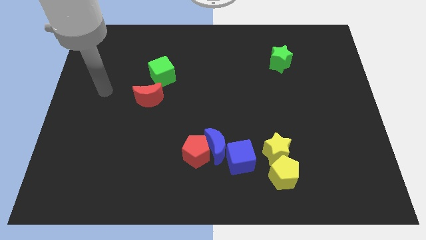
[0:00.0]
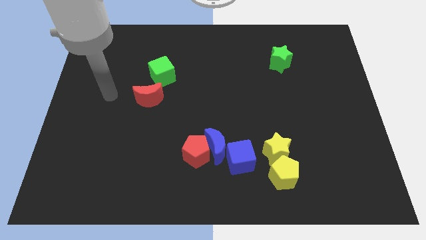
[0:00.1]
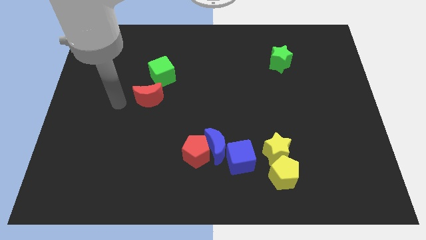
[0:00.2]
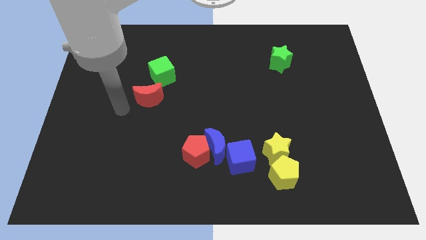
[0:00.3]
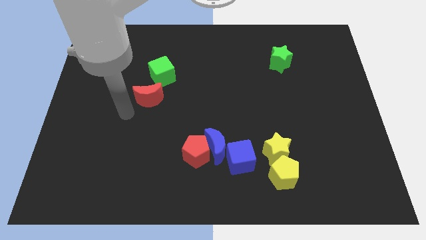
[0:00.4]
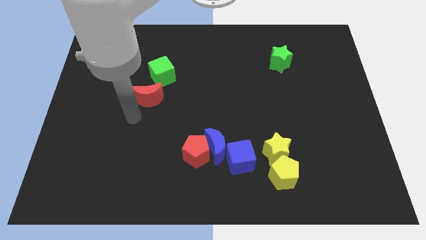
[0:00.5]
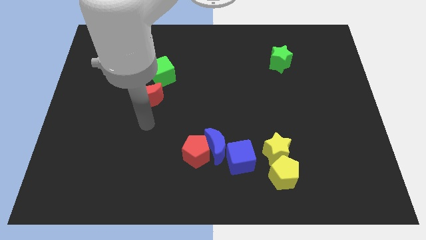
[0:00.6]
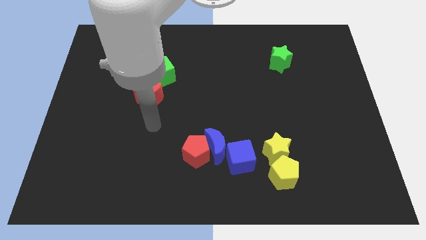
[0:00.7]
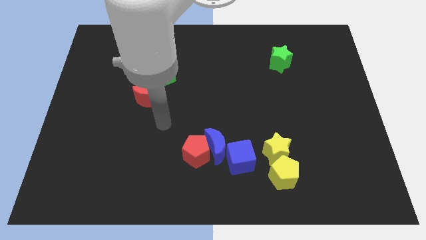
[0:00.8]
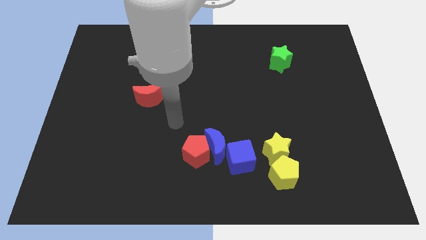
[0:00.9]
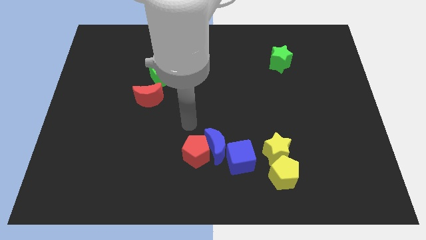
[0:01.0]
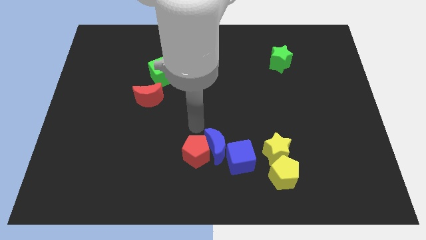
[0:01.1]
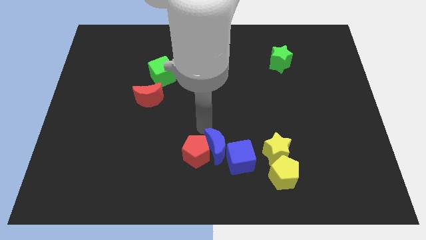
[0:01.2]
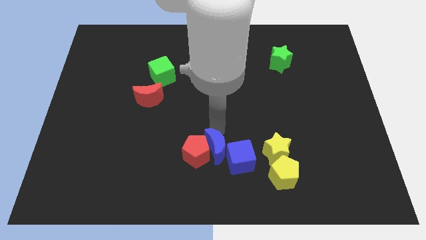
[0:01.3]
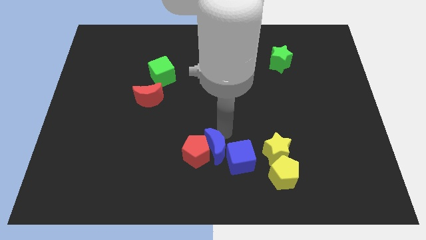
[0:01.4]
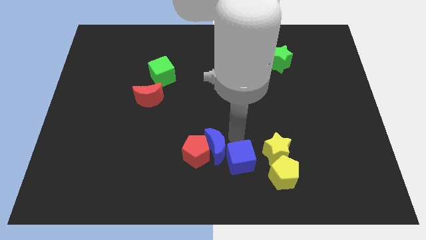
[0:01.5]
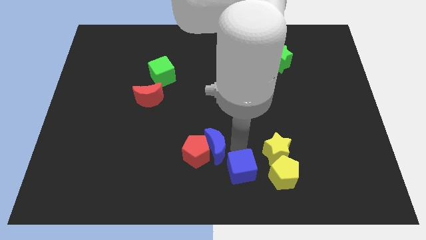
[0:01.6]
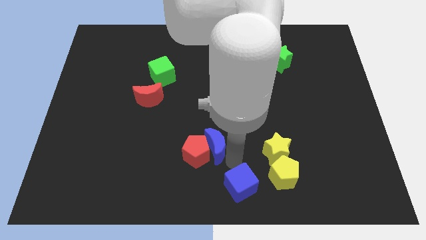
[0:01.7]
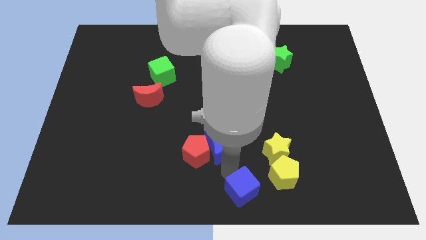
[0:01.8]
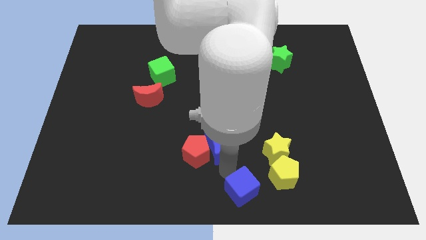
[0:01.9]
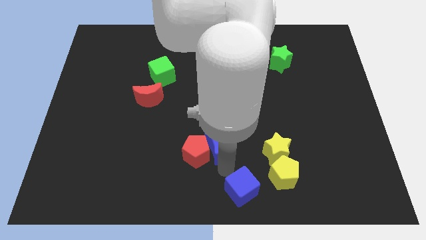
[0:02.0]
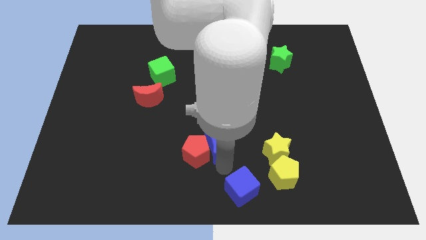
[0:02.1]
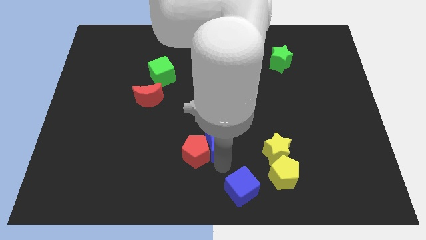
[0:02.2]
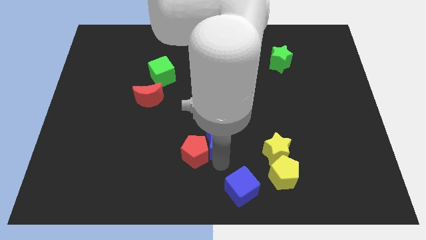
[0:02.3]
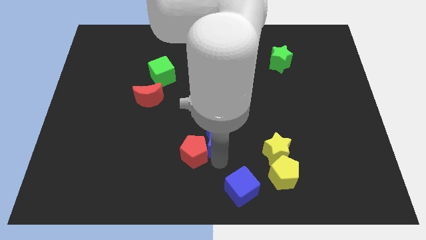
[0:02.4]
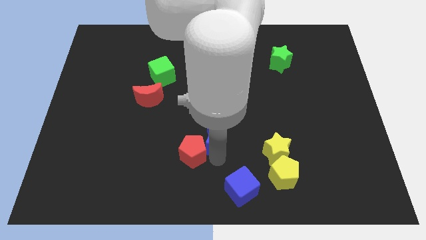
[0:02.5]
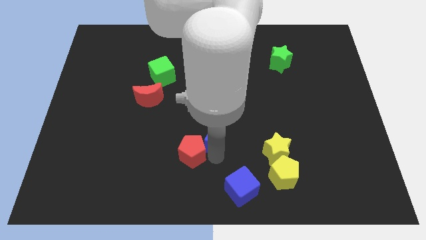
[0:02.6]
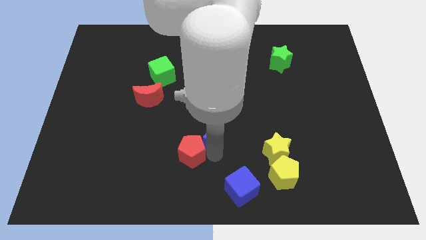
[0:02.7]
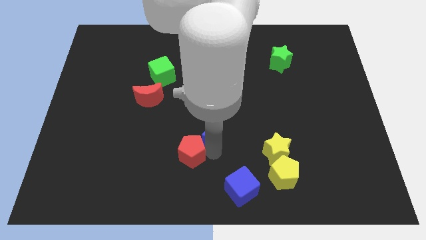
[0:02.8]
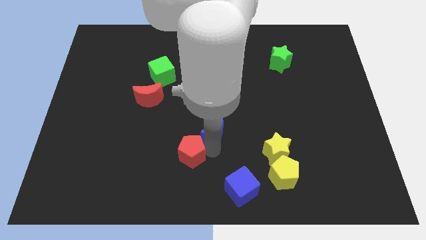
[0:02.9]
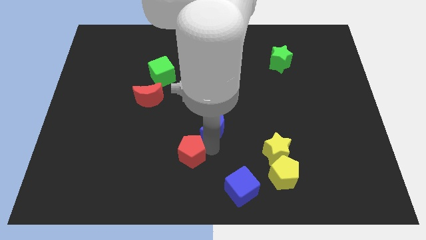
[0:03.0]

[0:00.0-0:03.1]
pull the blue moon apart from the red pentagon and blue cube

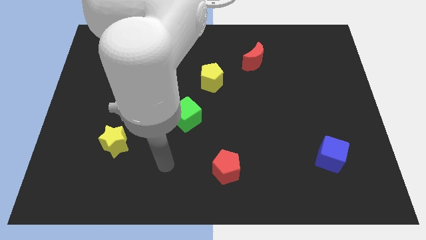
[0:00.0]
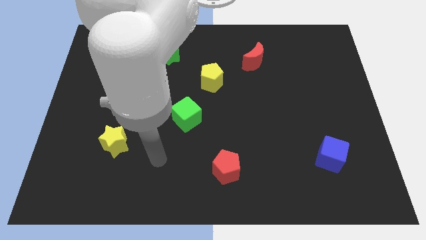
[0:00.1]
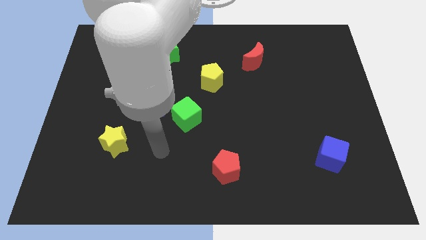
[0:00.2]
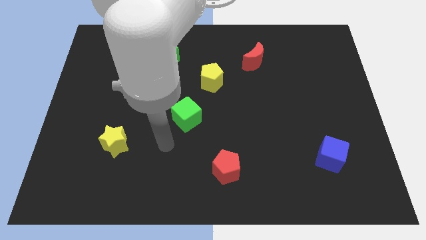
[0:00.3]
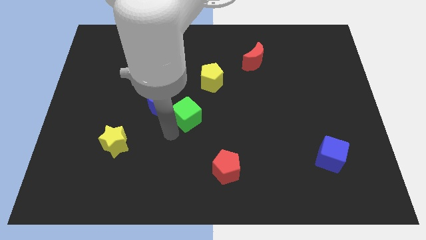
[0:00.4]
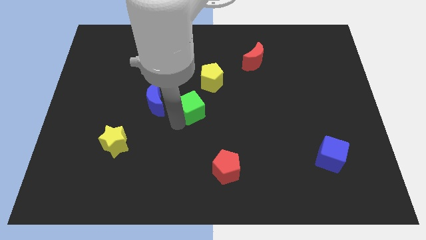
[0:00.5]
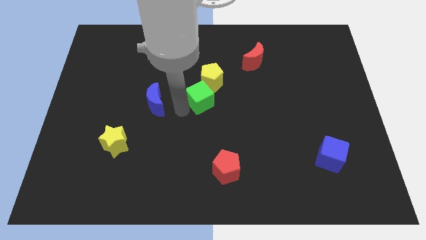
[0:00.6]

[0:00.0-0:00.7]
pull the blue moon apart from the green cube

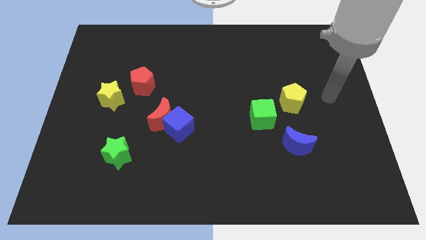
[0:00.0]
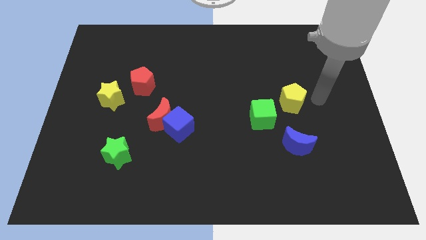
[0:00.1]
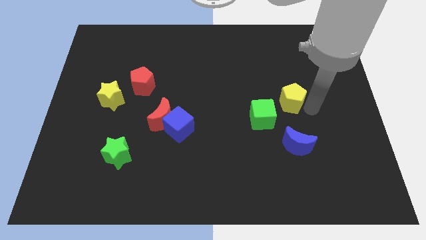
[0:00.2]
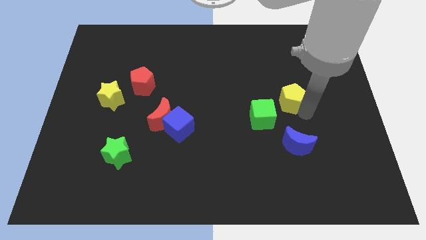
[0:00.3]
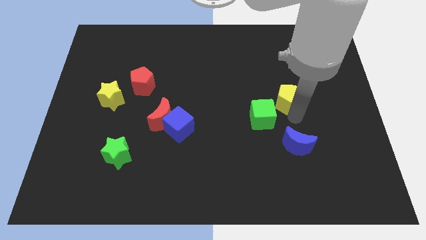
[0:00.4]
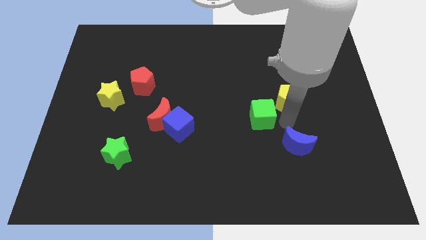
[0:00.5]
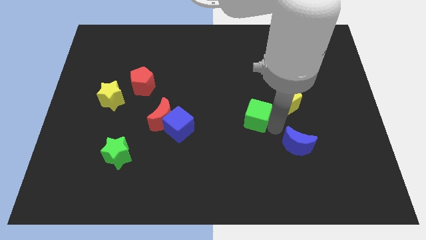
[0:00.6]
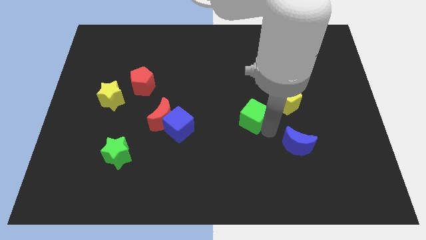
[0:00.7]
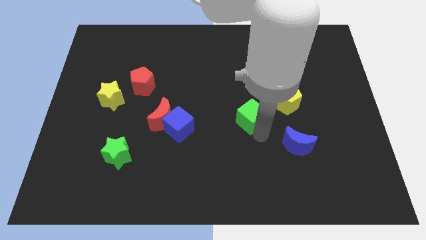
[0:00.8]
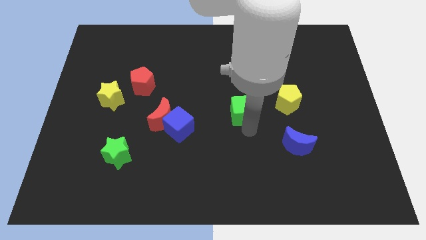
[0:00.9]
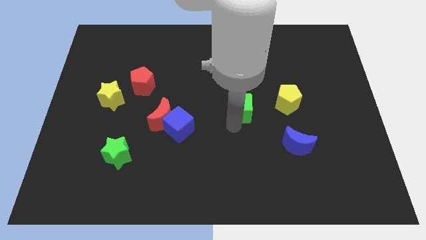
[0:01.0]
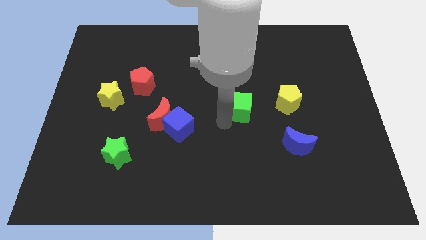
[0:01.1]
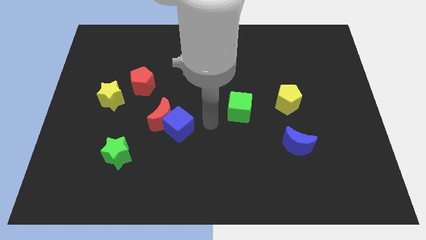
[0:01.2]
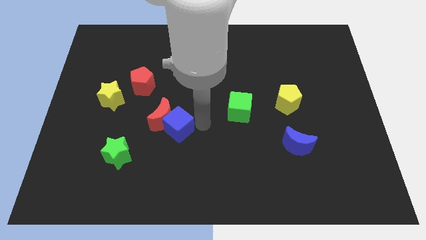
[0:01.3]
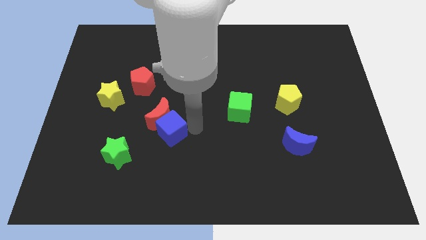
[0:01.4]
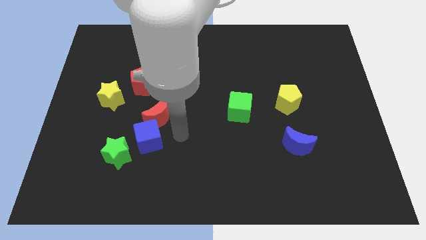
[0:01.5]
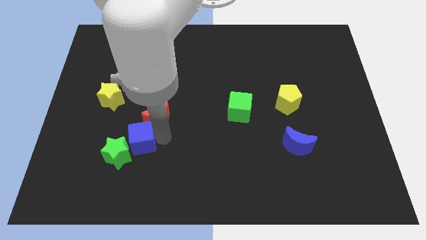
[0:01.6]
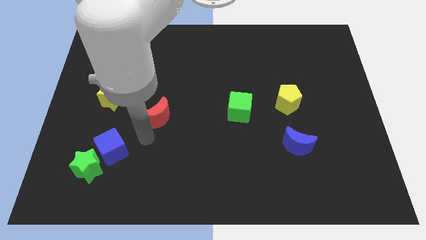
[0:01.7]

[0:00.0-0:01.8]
separate the red moon from the blue cube

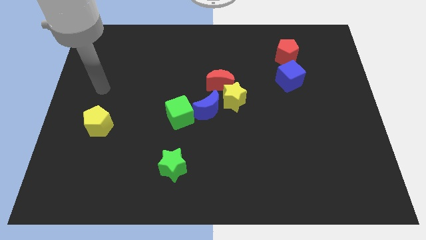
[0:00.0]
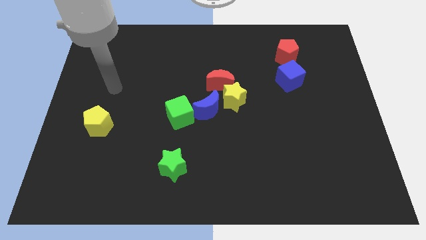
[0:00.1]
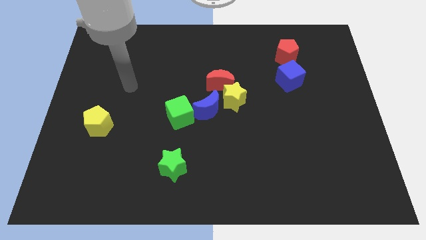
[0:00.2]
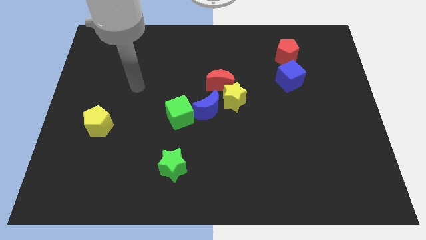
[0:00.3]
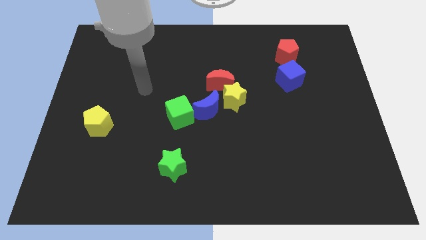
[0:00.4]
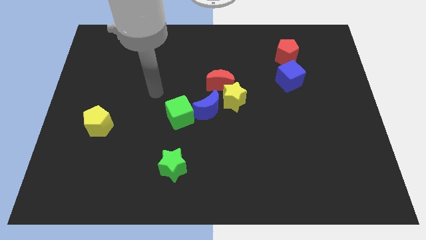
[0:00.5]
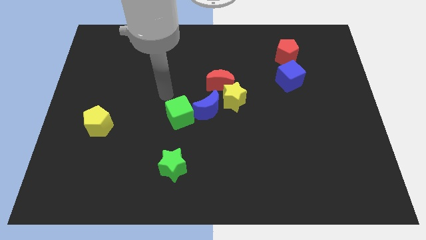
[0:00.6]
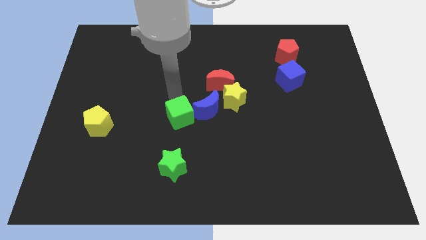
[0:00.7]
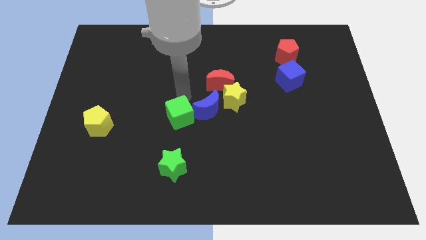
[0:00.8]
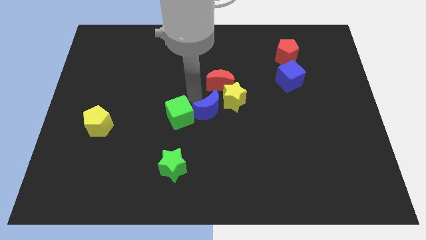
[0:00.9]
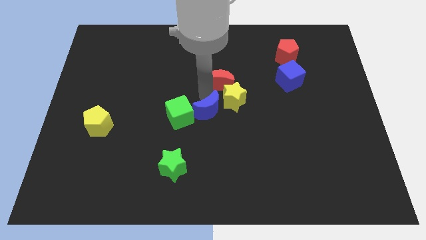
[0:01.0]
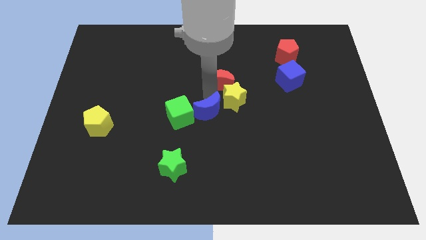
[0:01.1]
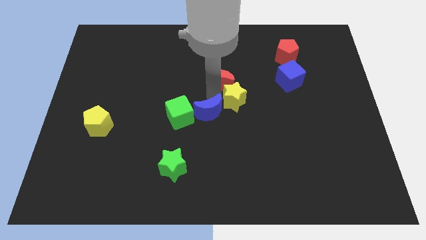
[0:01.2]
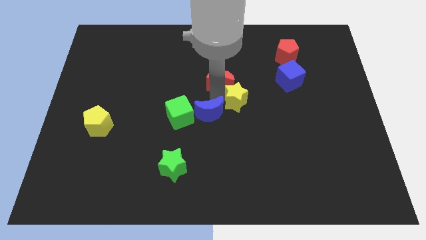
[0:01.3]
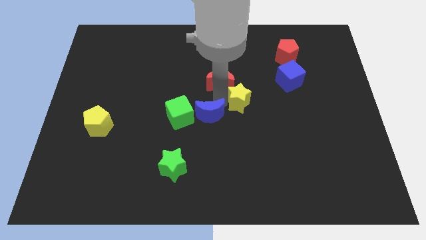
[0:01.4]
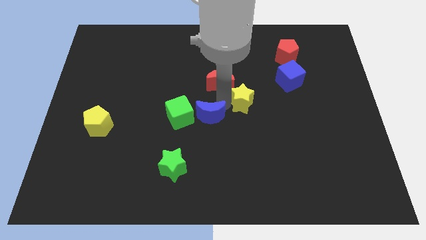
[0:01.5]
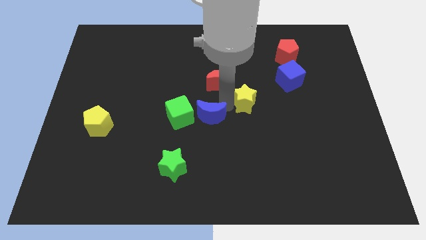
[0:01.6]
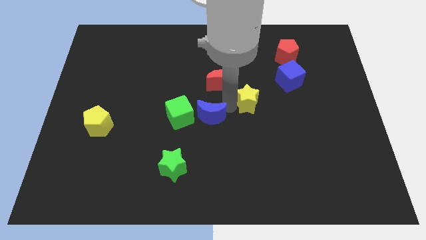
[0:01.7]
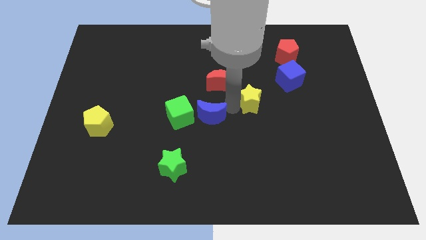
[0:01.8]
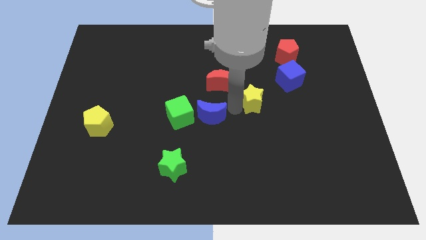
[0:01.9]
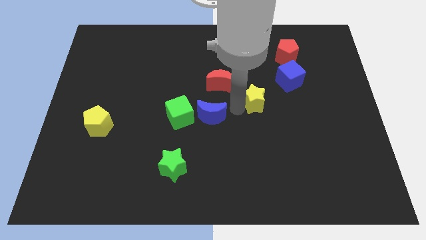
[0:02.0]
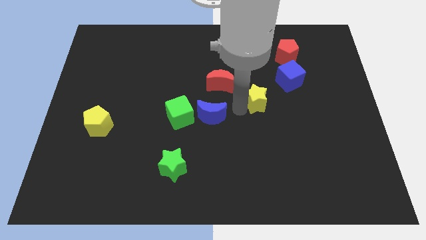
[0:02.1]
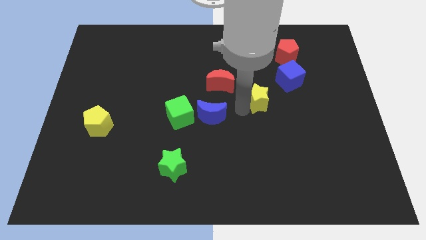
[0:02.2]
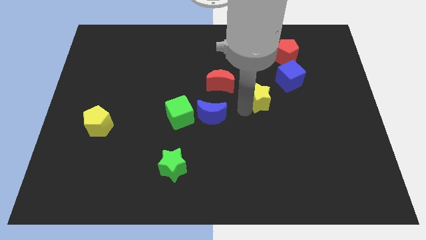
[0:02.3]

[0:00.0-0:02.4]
move the yellow star away from the red moon and blue moon

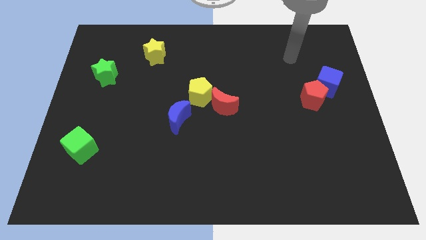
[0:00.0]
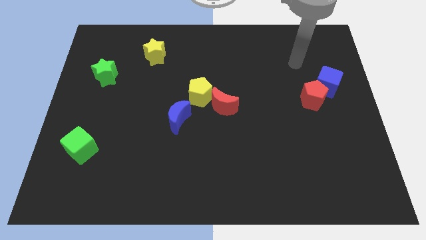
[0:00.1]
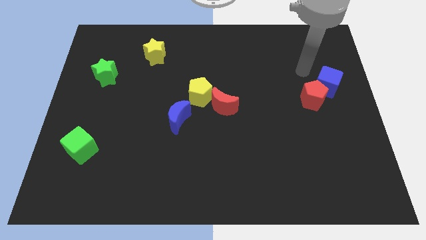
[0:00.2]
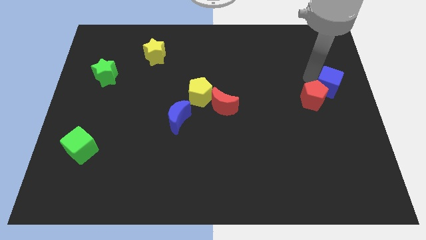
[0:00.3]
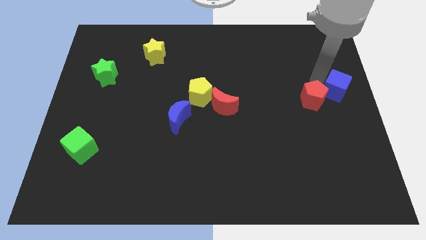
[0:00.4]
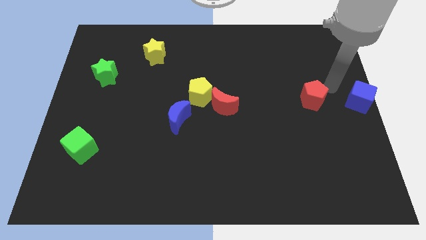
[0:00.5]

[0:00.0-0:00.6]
move the red pentagon away from the blue cube

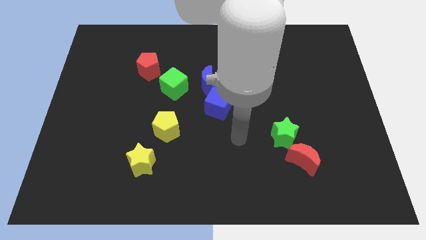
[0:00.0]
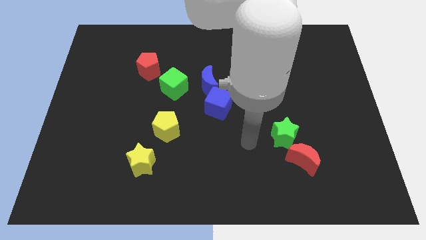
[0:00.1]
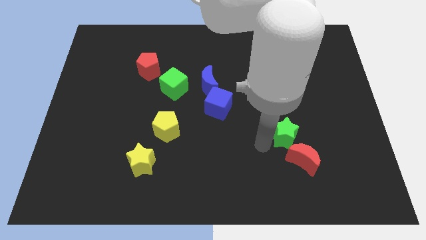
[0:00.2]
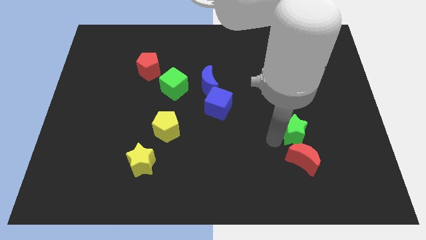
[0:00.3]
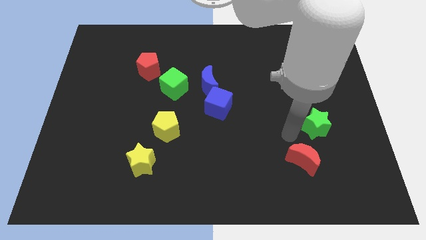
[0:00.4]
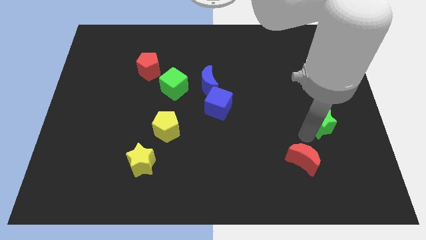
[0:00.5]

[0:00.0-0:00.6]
move the red moon away from the green star
